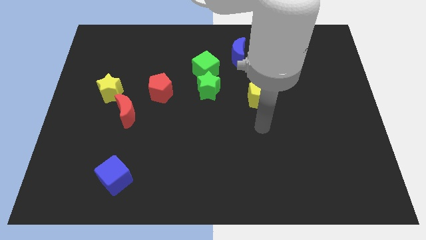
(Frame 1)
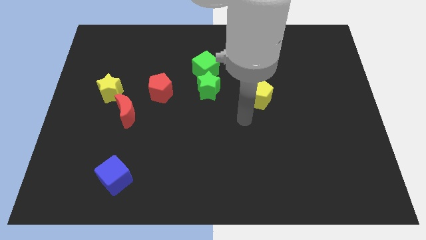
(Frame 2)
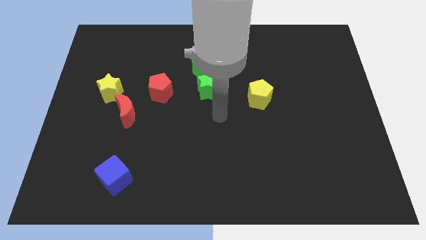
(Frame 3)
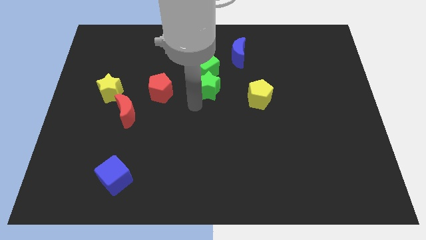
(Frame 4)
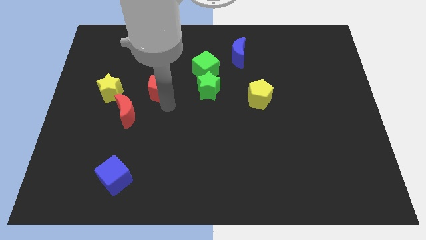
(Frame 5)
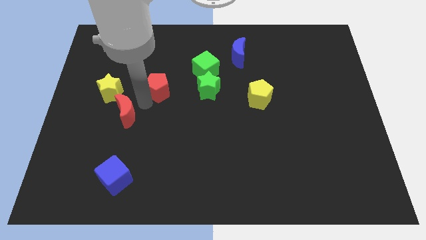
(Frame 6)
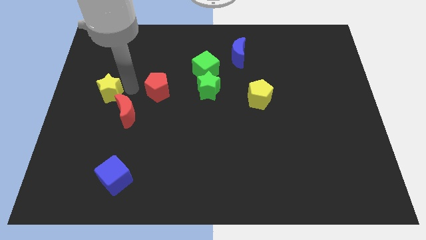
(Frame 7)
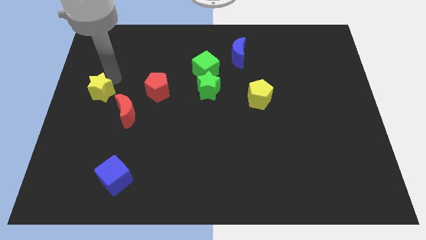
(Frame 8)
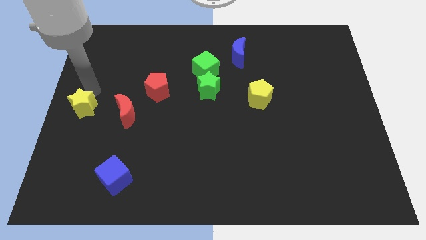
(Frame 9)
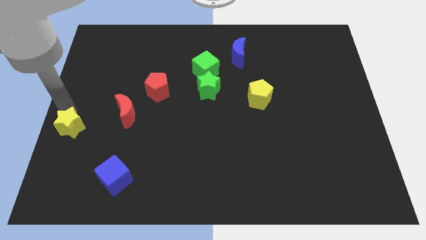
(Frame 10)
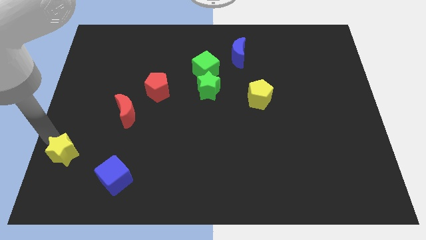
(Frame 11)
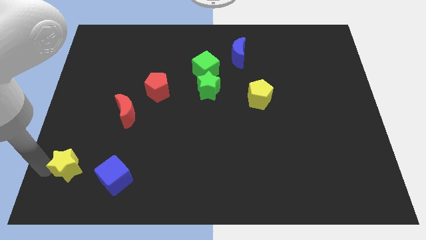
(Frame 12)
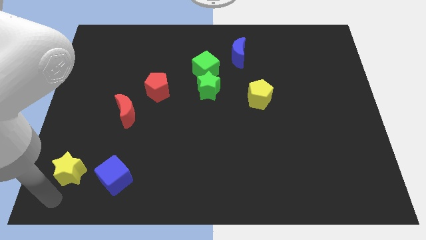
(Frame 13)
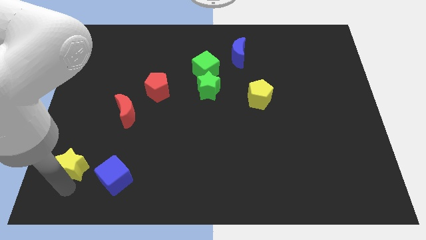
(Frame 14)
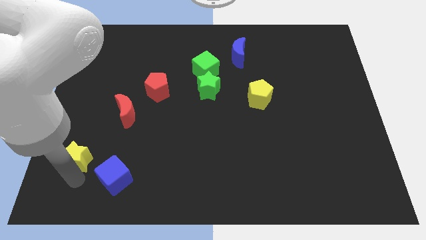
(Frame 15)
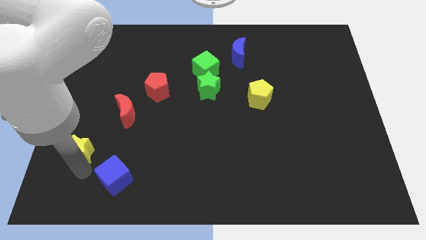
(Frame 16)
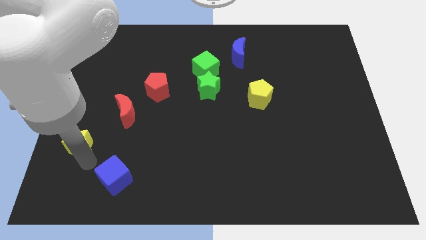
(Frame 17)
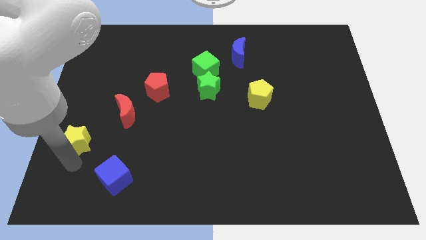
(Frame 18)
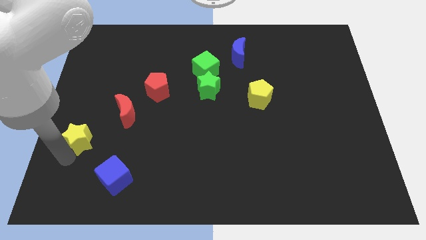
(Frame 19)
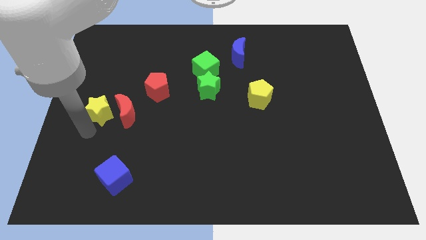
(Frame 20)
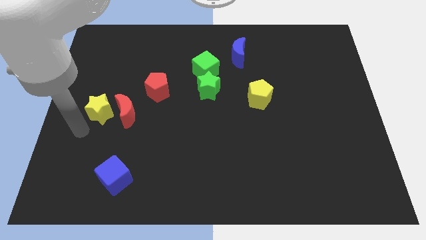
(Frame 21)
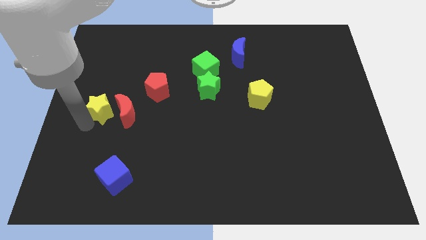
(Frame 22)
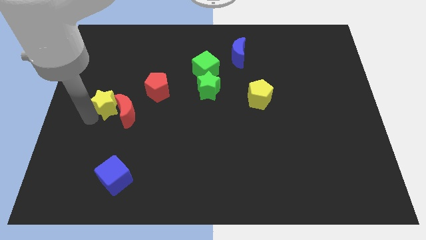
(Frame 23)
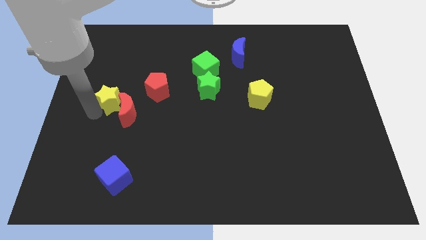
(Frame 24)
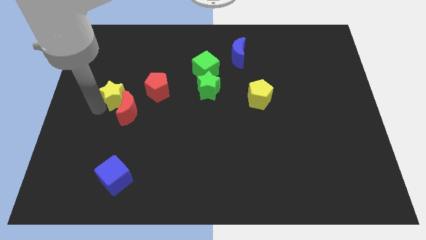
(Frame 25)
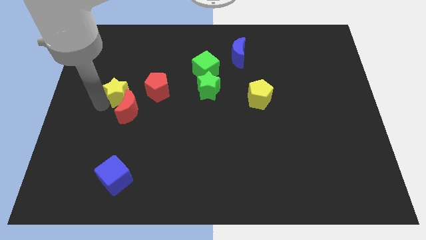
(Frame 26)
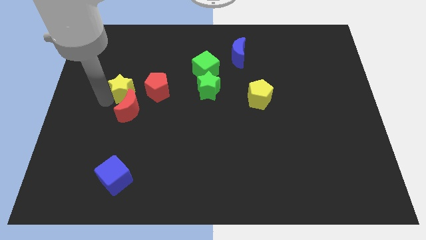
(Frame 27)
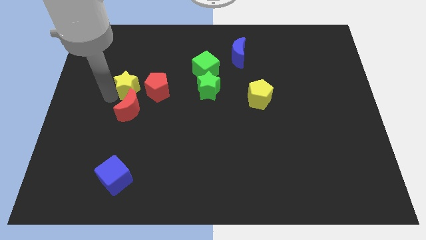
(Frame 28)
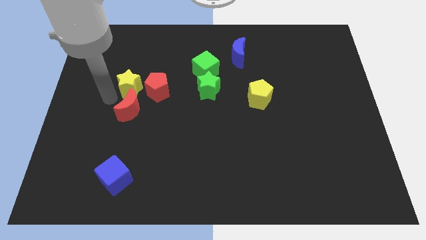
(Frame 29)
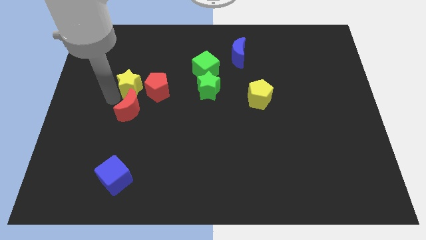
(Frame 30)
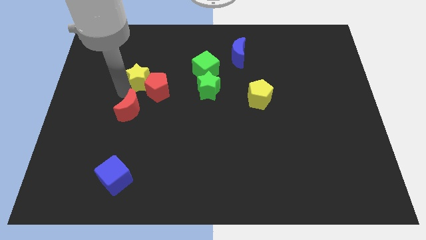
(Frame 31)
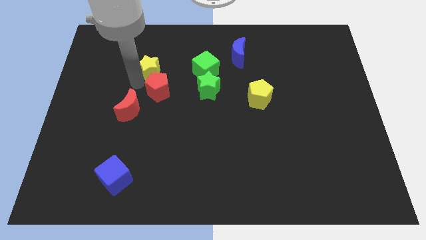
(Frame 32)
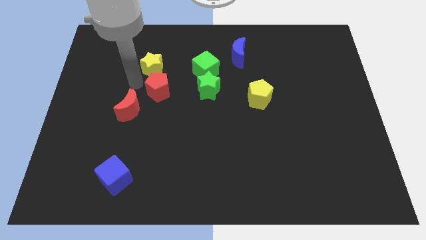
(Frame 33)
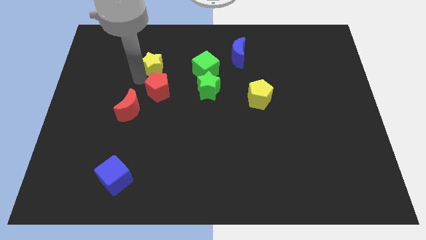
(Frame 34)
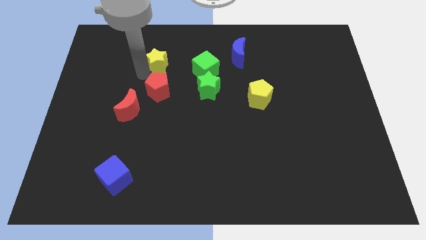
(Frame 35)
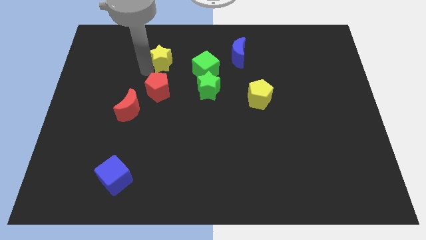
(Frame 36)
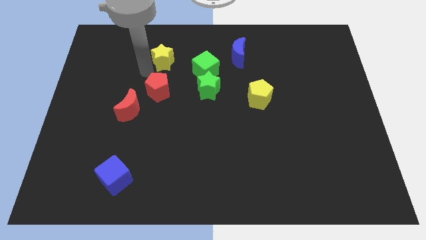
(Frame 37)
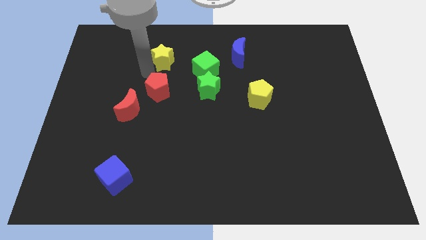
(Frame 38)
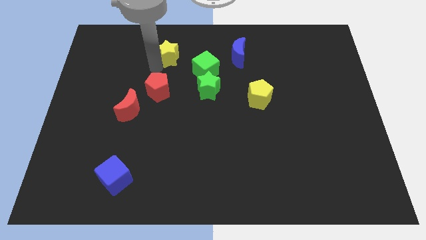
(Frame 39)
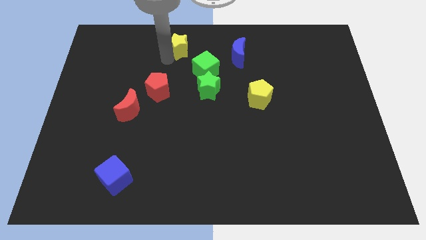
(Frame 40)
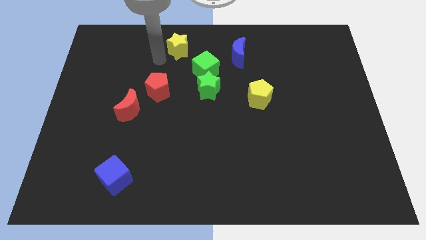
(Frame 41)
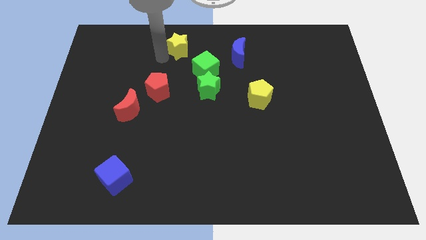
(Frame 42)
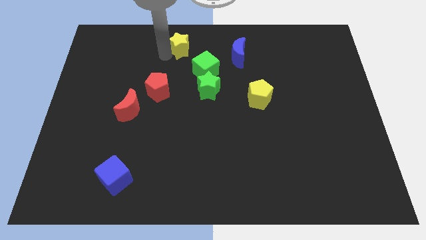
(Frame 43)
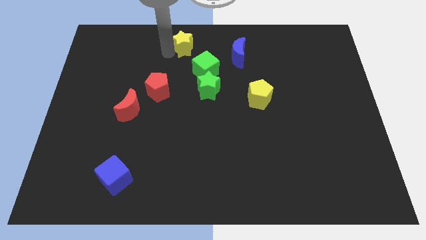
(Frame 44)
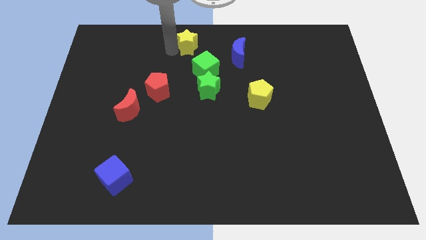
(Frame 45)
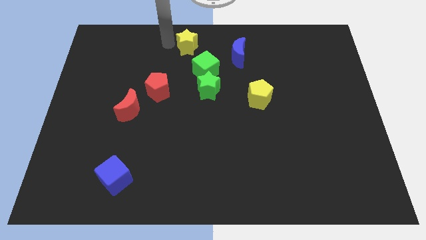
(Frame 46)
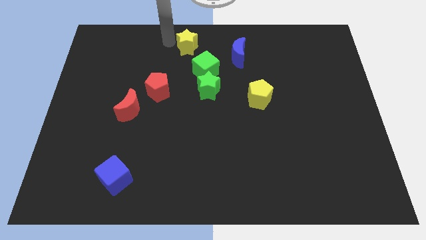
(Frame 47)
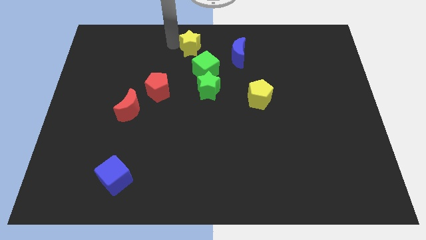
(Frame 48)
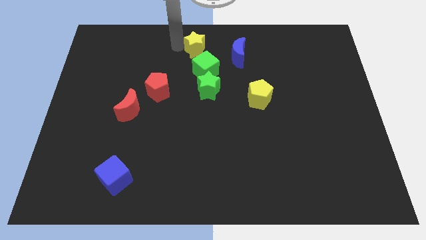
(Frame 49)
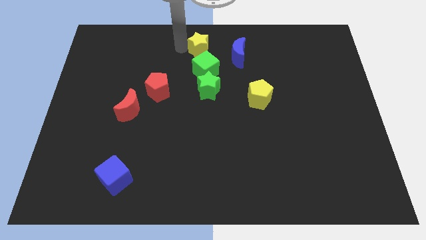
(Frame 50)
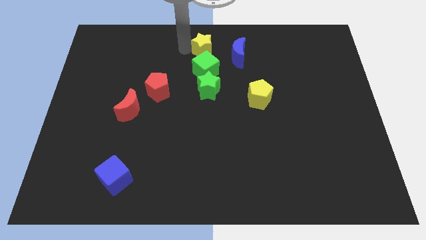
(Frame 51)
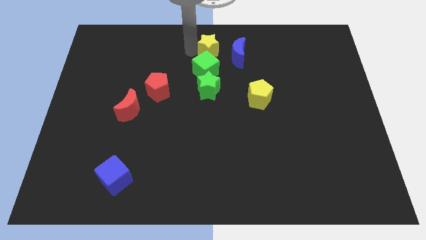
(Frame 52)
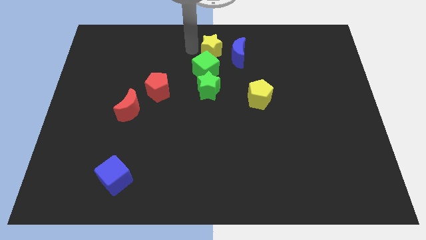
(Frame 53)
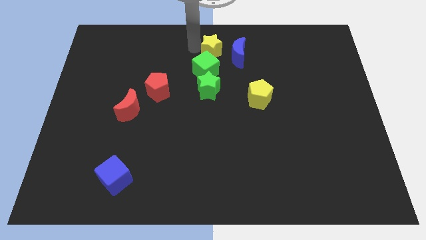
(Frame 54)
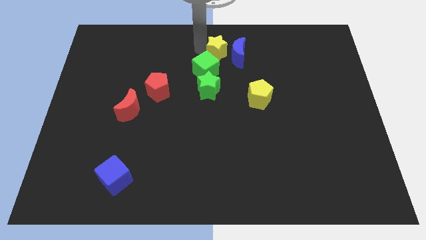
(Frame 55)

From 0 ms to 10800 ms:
move the yellow star towards the blue moon

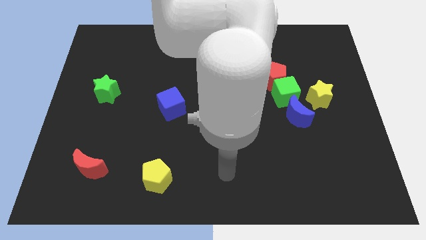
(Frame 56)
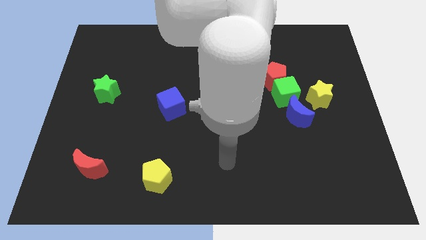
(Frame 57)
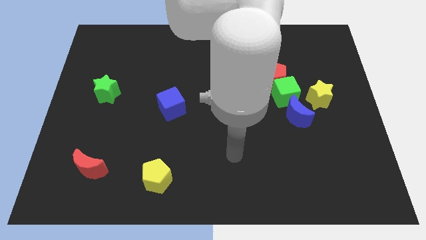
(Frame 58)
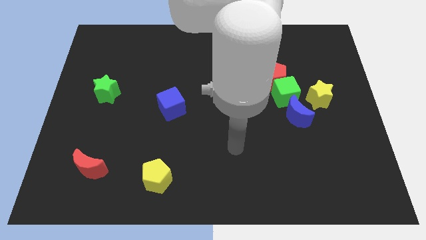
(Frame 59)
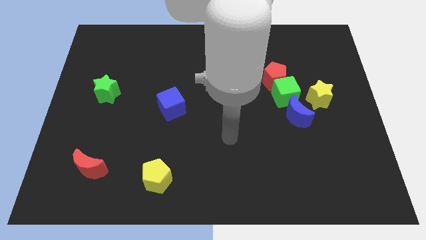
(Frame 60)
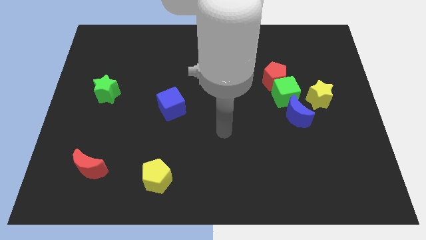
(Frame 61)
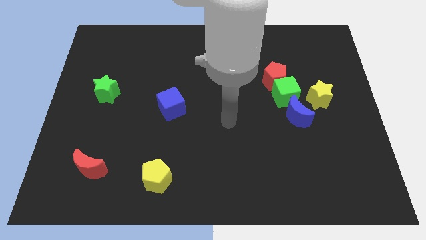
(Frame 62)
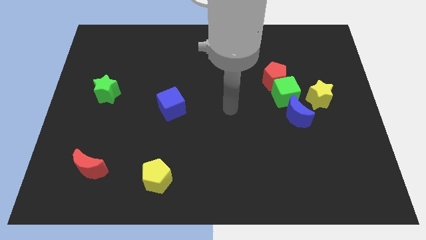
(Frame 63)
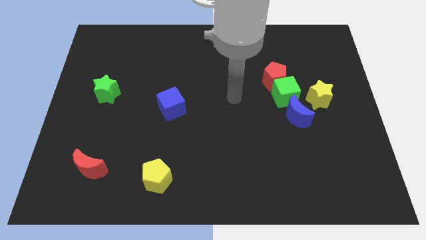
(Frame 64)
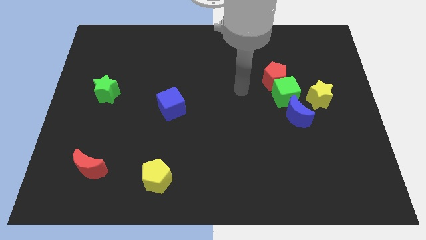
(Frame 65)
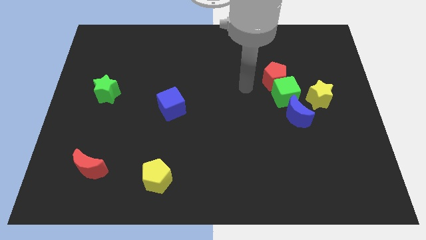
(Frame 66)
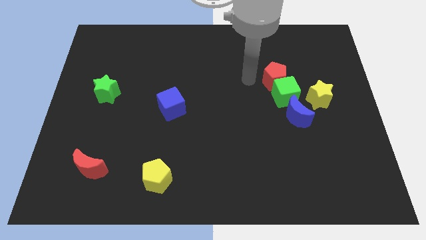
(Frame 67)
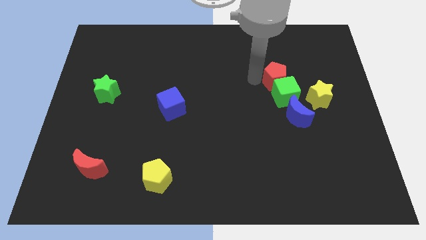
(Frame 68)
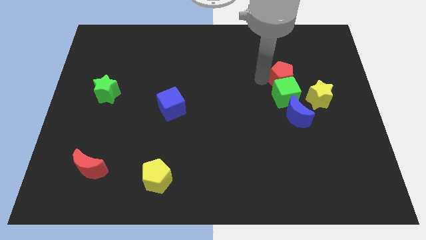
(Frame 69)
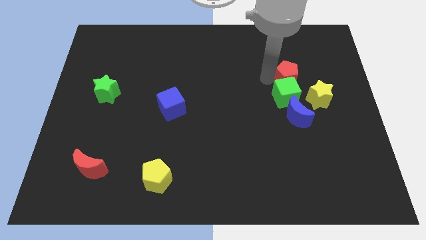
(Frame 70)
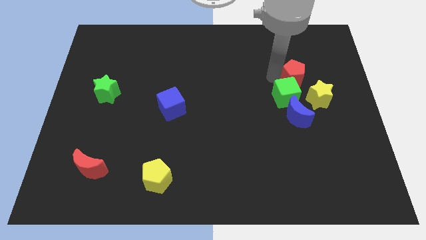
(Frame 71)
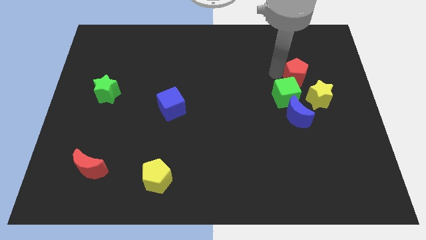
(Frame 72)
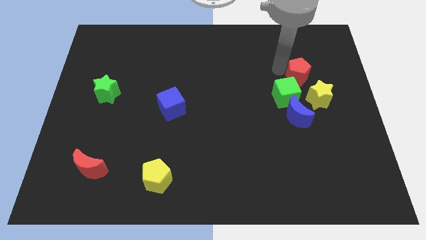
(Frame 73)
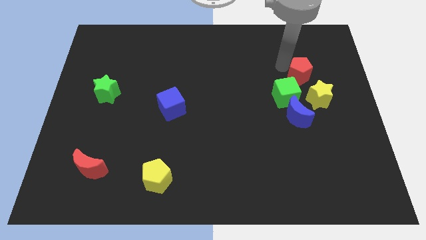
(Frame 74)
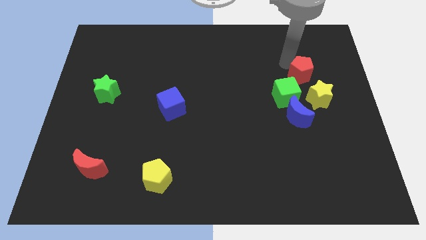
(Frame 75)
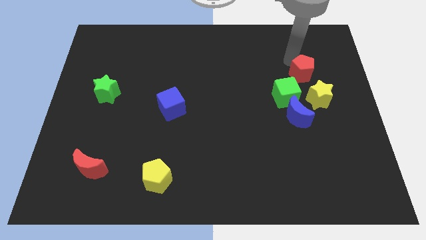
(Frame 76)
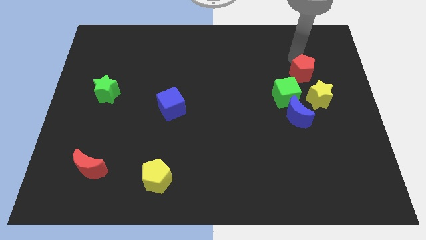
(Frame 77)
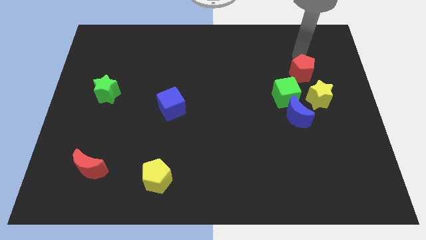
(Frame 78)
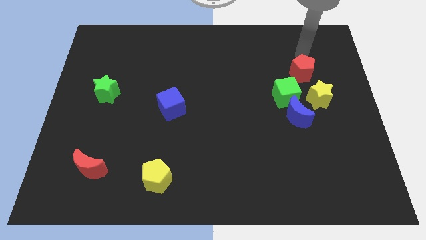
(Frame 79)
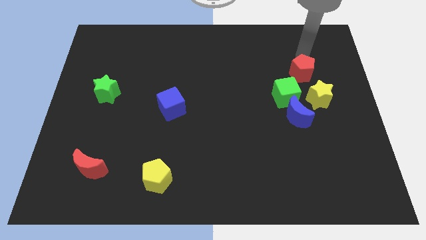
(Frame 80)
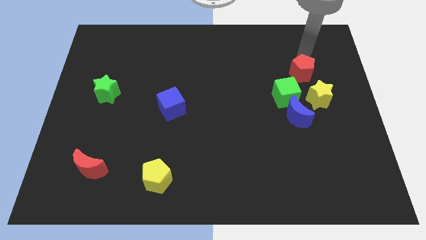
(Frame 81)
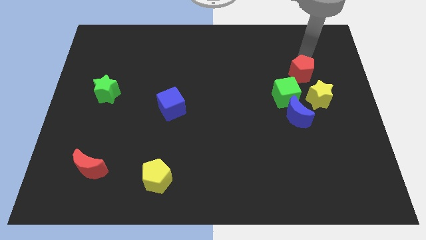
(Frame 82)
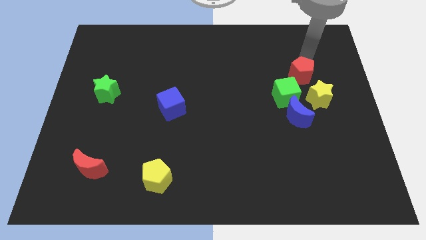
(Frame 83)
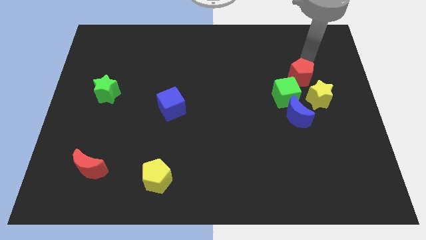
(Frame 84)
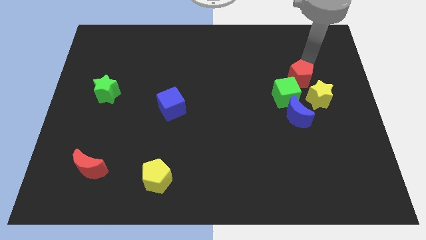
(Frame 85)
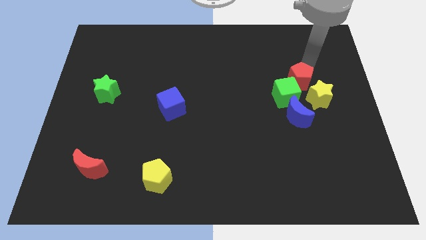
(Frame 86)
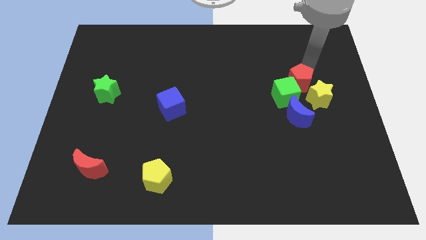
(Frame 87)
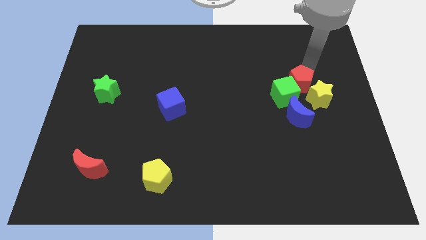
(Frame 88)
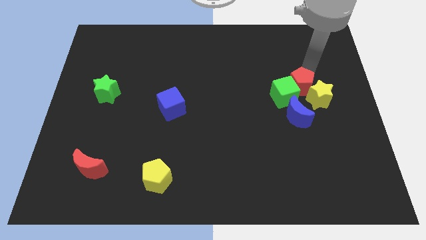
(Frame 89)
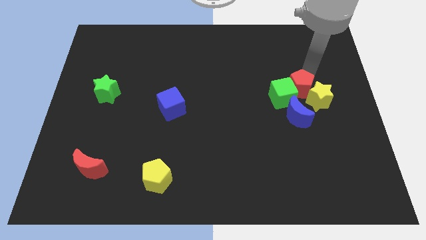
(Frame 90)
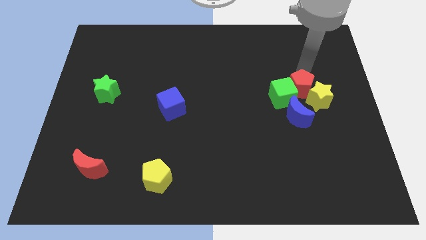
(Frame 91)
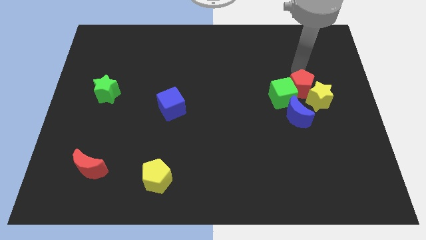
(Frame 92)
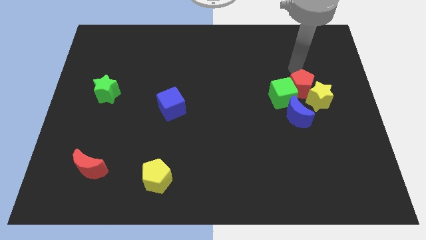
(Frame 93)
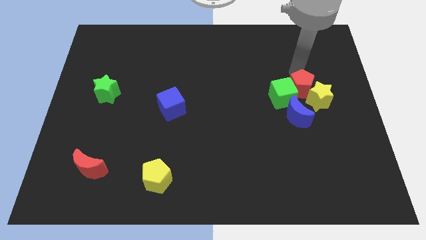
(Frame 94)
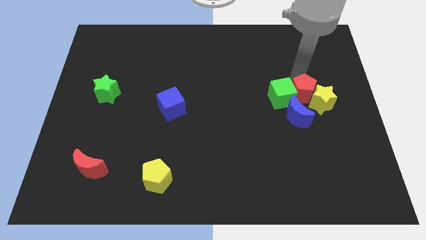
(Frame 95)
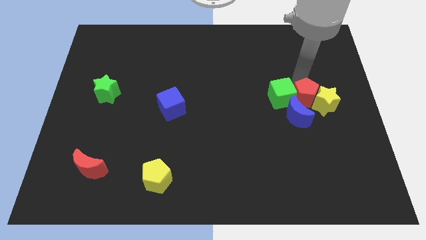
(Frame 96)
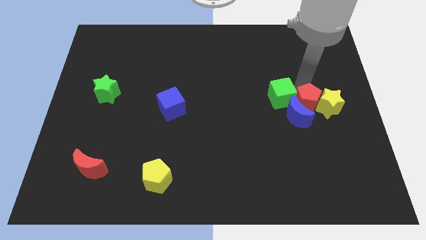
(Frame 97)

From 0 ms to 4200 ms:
put the red pentagon to the blue moon
